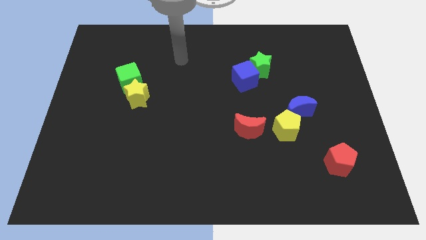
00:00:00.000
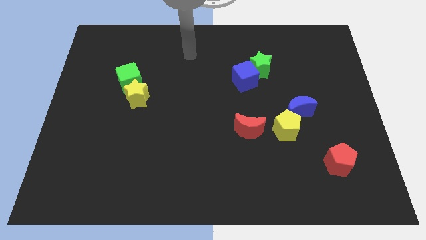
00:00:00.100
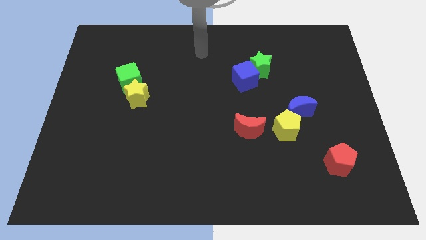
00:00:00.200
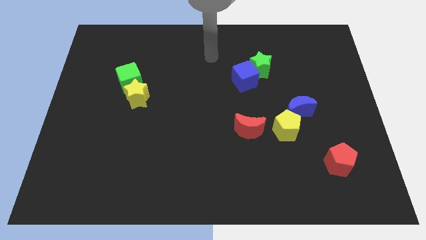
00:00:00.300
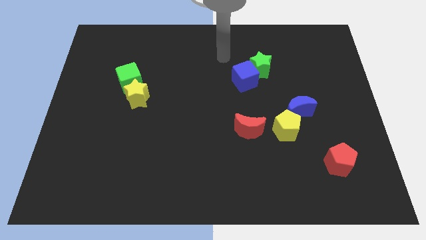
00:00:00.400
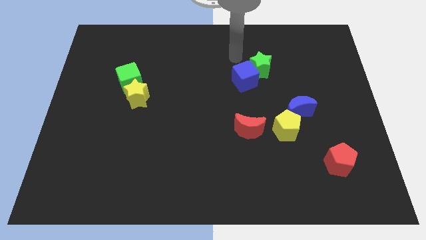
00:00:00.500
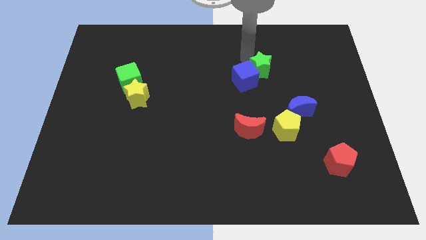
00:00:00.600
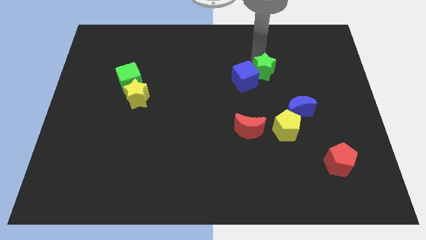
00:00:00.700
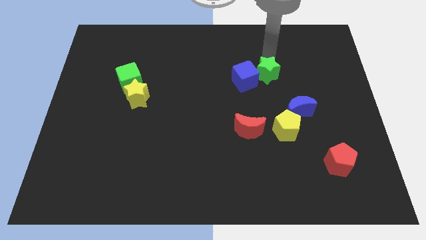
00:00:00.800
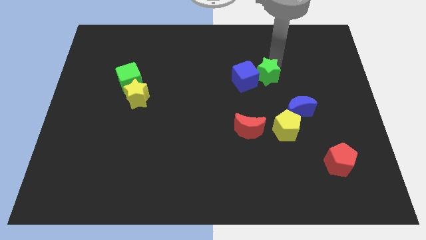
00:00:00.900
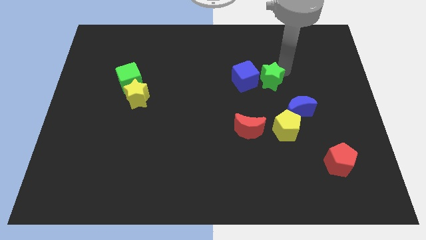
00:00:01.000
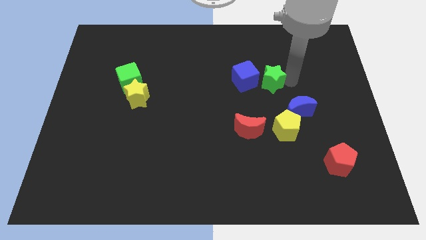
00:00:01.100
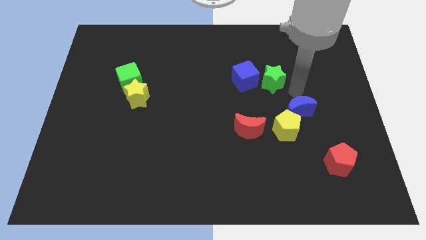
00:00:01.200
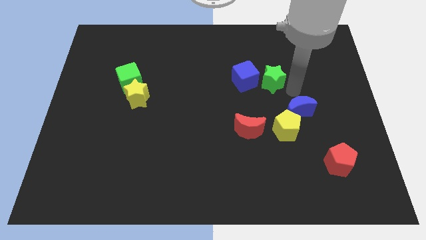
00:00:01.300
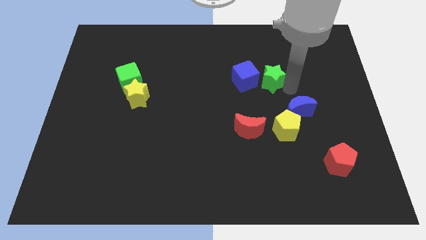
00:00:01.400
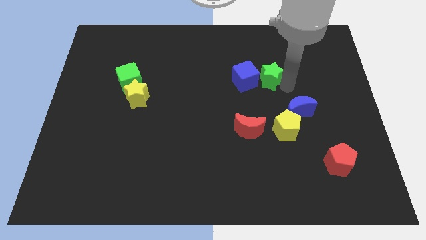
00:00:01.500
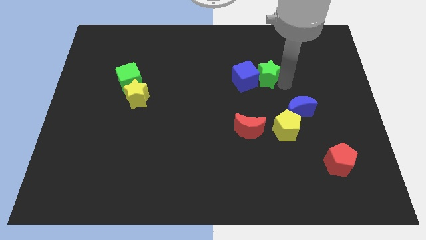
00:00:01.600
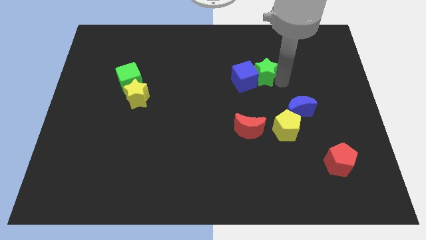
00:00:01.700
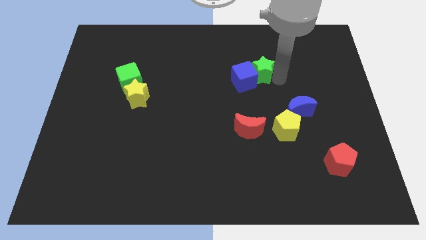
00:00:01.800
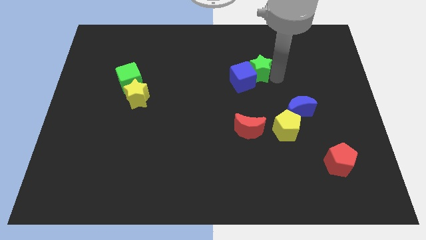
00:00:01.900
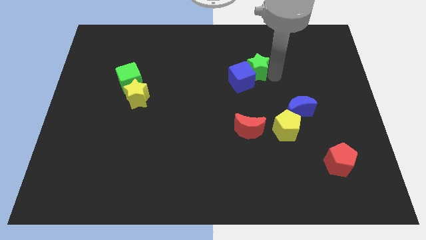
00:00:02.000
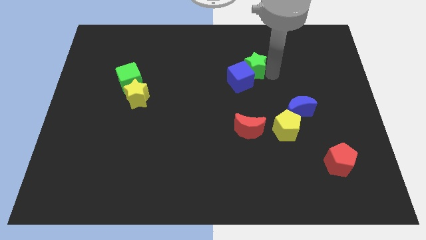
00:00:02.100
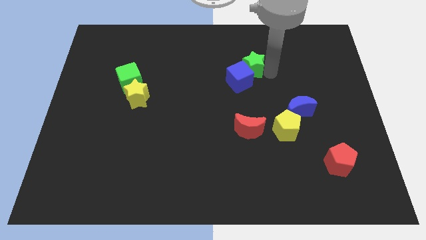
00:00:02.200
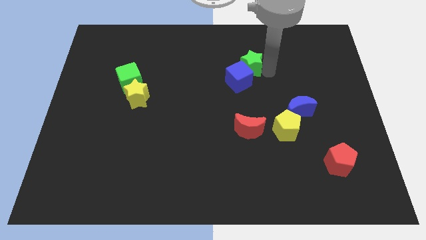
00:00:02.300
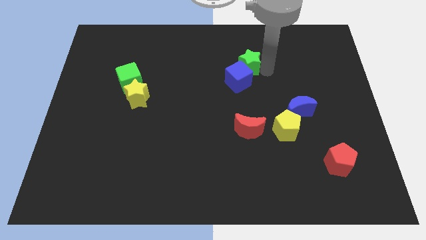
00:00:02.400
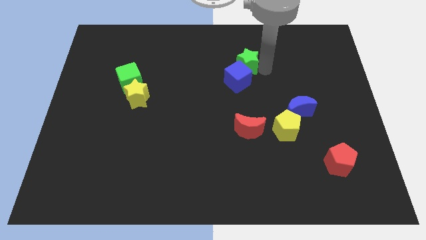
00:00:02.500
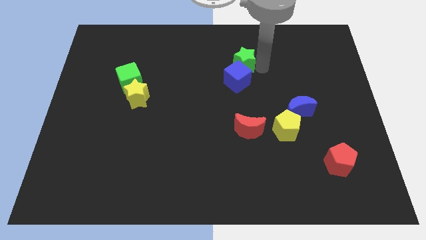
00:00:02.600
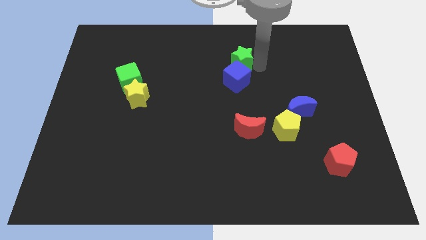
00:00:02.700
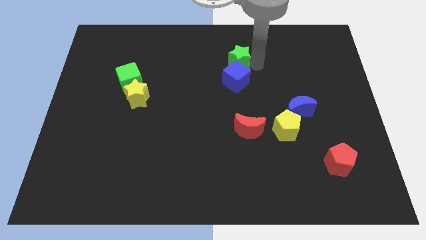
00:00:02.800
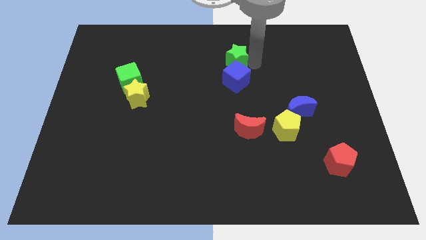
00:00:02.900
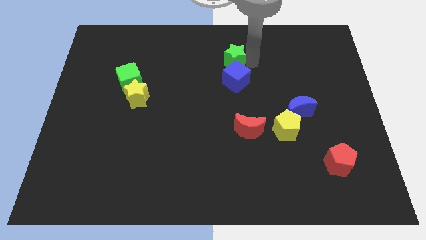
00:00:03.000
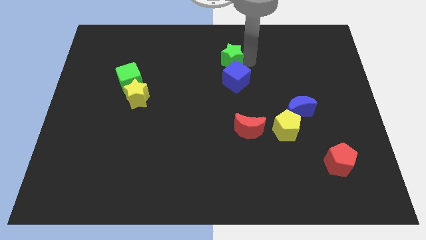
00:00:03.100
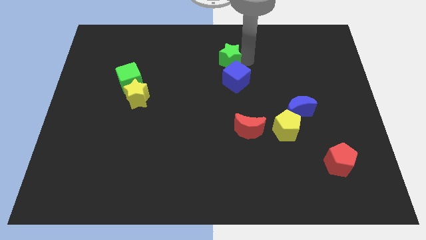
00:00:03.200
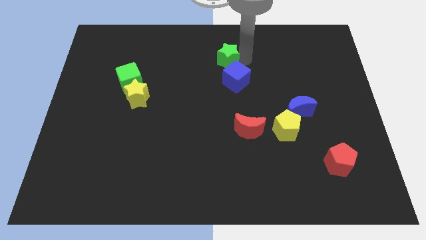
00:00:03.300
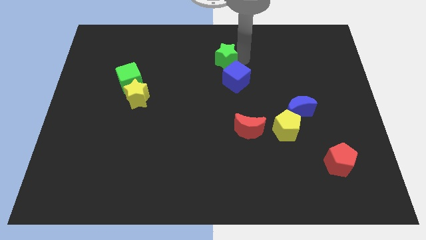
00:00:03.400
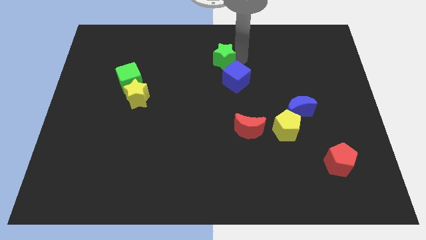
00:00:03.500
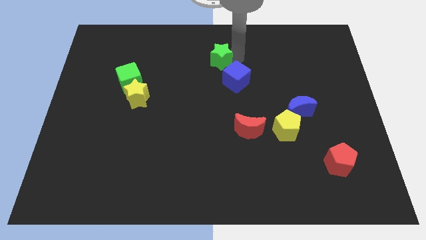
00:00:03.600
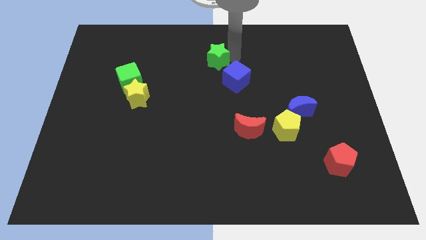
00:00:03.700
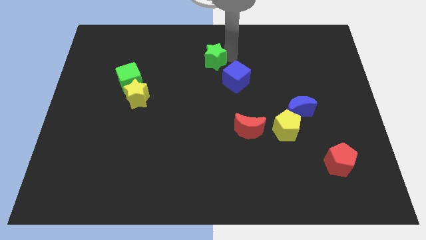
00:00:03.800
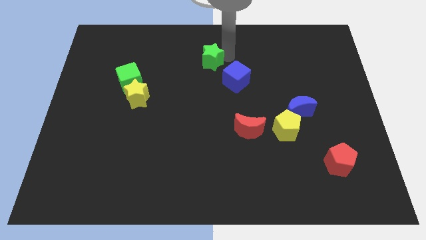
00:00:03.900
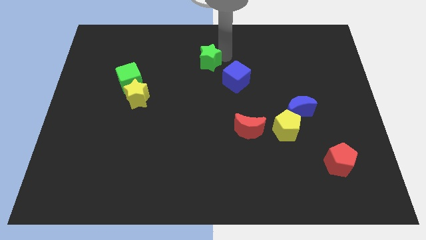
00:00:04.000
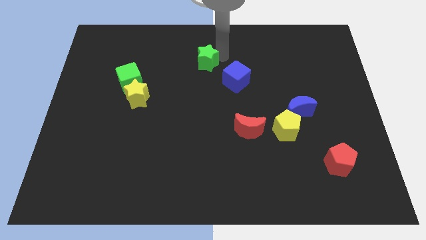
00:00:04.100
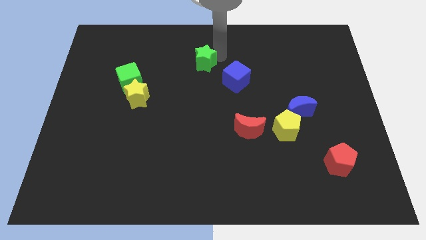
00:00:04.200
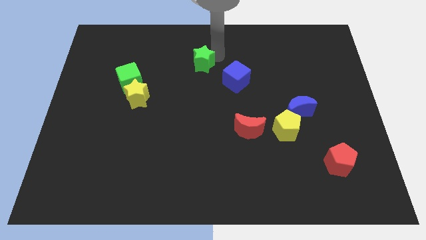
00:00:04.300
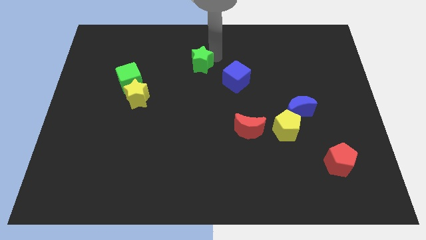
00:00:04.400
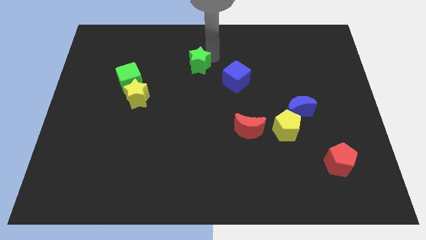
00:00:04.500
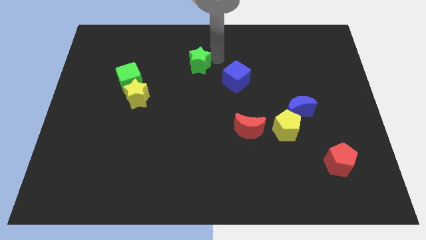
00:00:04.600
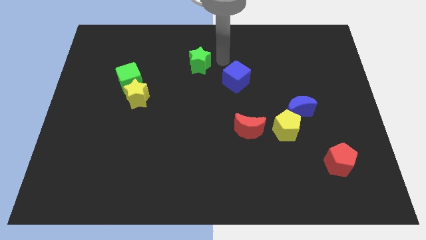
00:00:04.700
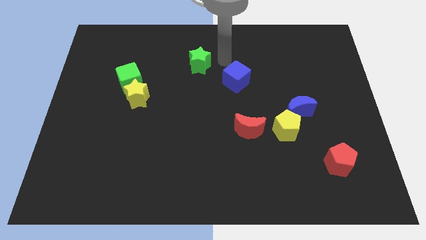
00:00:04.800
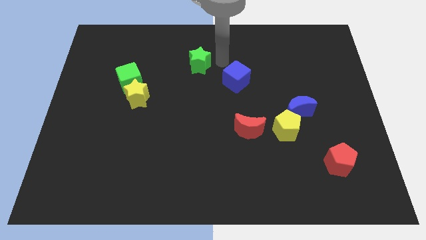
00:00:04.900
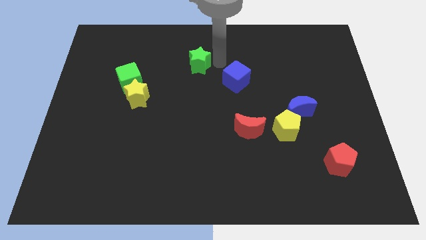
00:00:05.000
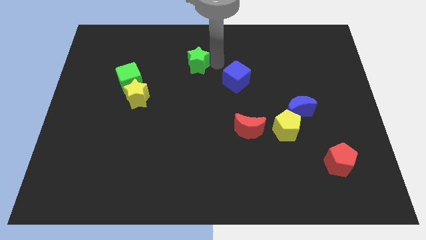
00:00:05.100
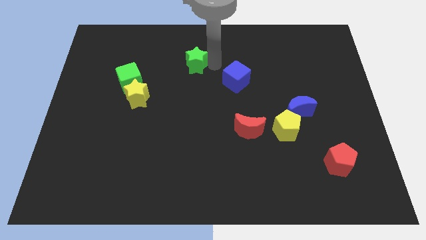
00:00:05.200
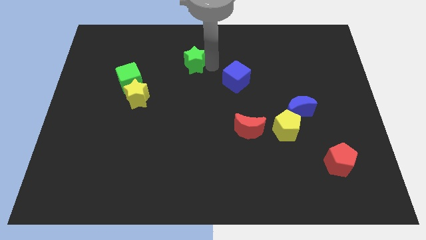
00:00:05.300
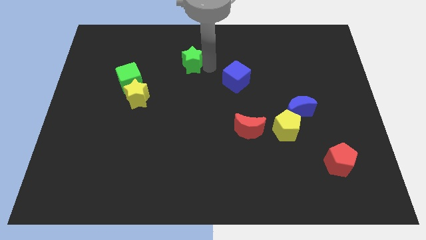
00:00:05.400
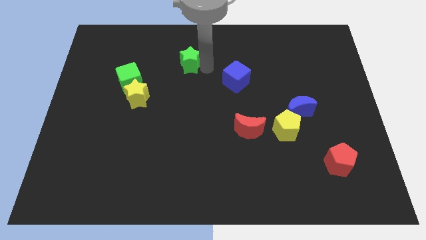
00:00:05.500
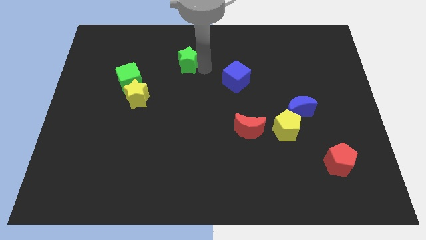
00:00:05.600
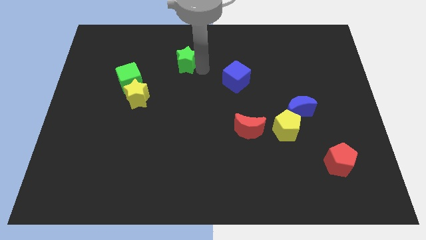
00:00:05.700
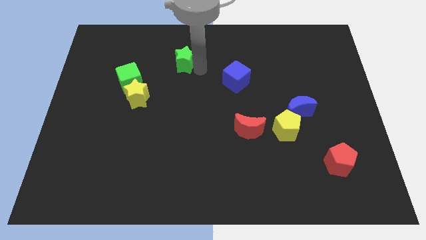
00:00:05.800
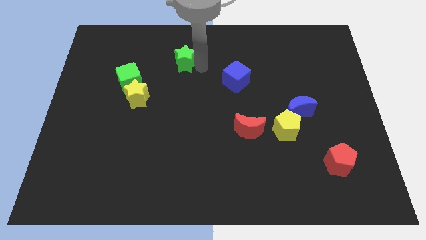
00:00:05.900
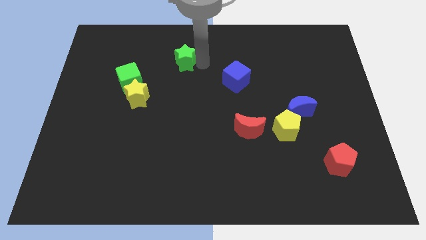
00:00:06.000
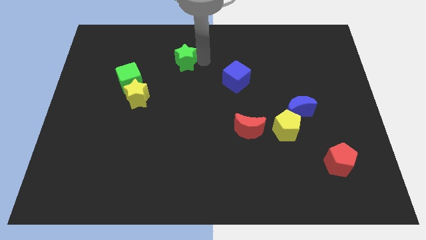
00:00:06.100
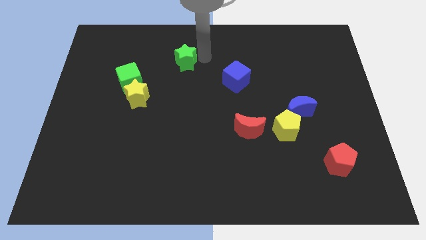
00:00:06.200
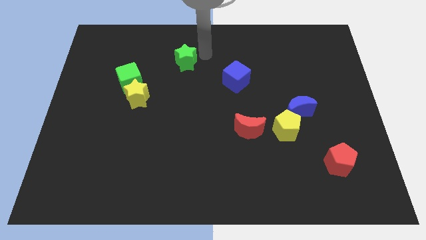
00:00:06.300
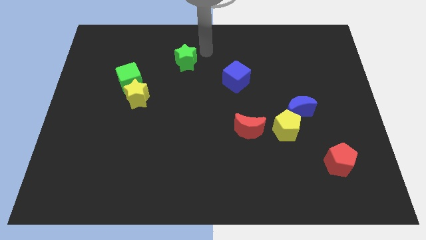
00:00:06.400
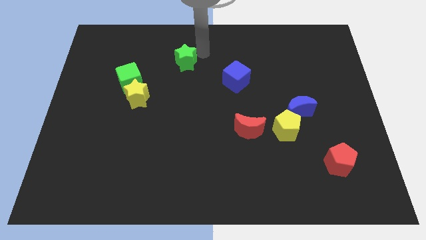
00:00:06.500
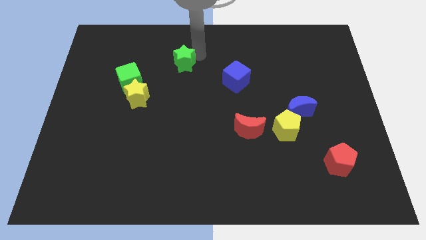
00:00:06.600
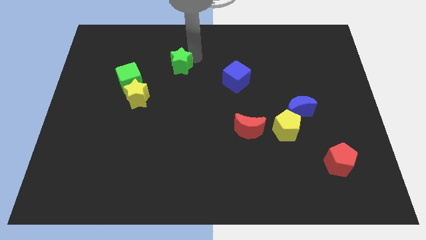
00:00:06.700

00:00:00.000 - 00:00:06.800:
push the green star left

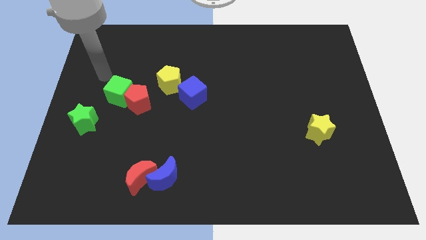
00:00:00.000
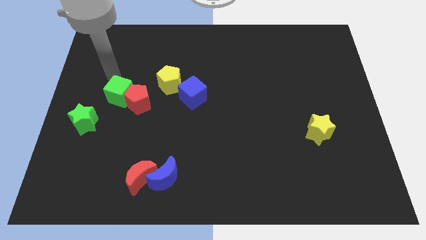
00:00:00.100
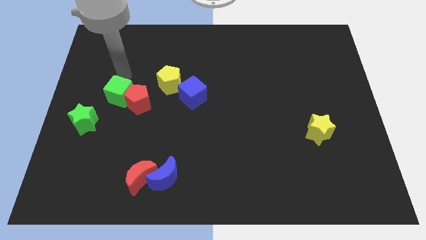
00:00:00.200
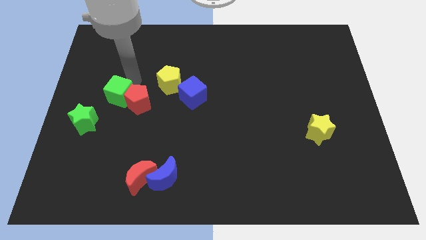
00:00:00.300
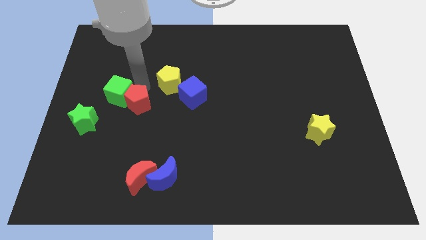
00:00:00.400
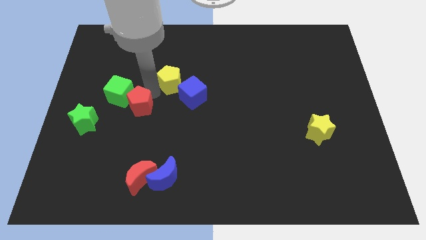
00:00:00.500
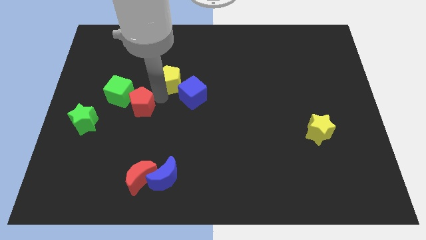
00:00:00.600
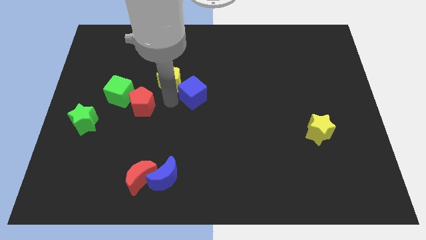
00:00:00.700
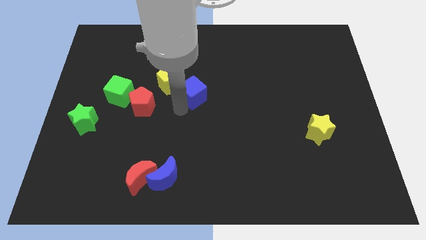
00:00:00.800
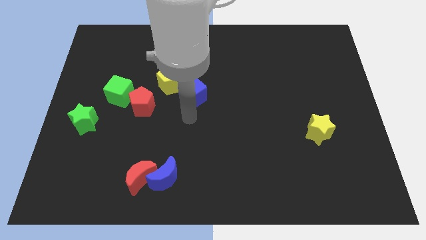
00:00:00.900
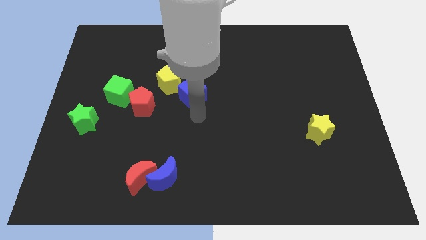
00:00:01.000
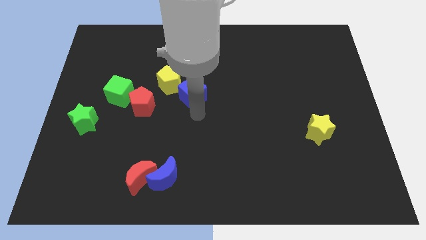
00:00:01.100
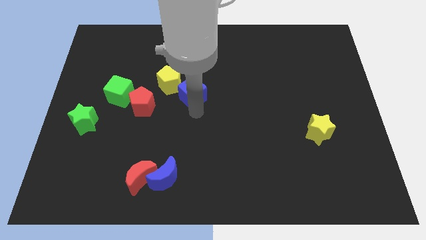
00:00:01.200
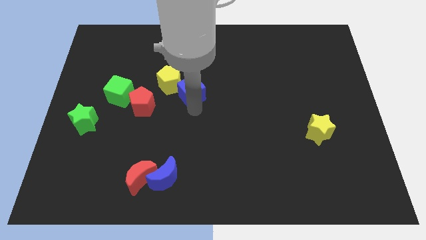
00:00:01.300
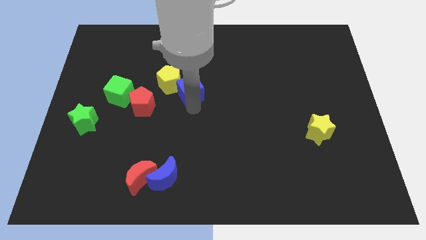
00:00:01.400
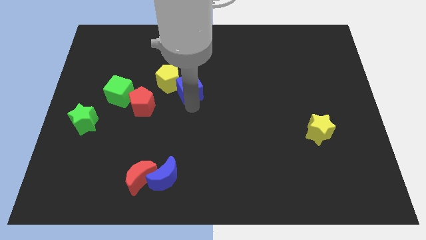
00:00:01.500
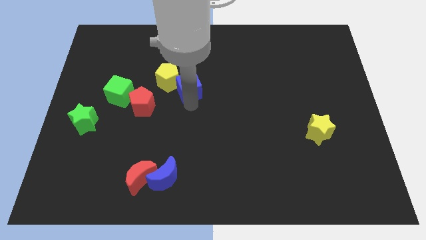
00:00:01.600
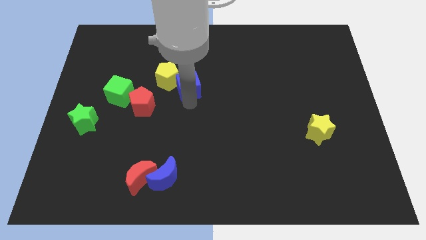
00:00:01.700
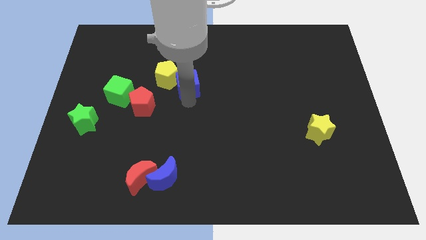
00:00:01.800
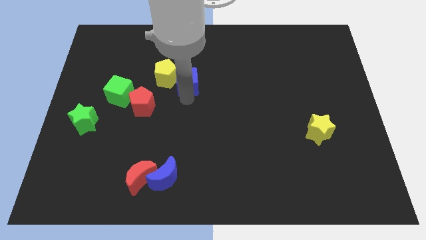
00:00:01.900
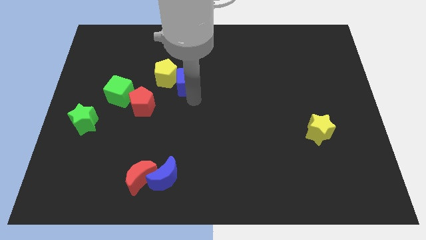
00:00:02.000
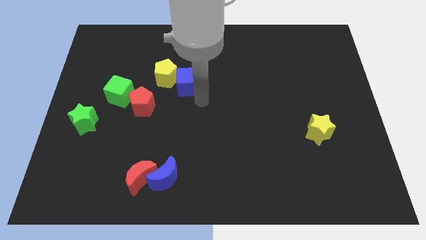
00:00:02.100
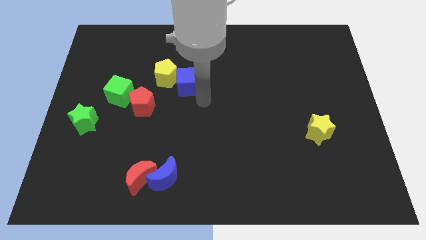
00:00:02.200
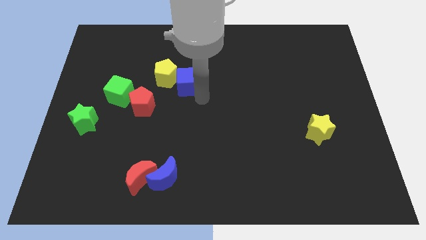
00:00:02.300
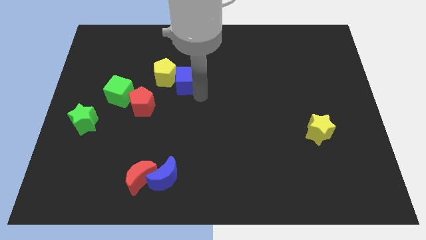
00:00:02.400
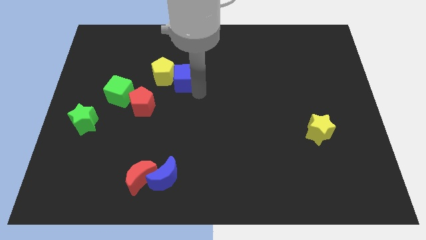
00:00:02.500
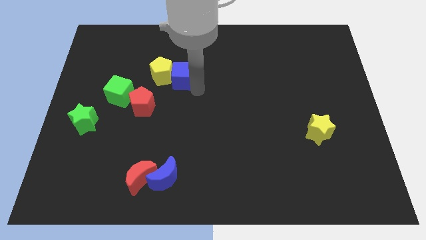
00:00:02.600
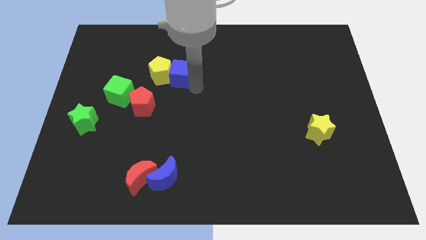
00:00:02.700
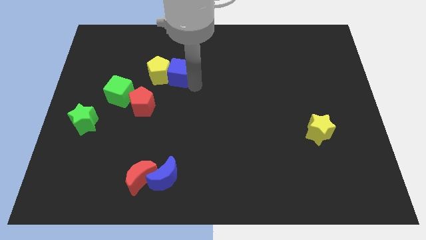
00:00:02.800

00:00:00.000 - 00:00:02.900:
move the blue cube upwards and then left a little bit
